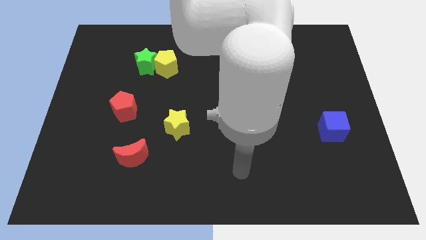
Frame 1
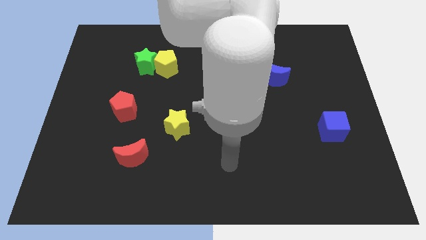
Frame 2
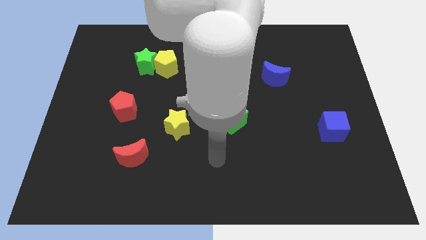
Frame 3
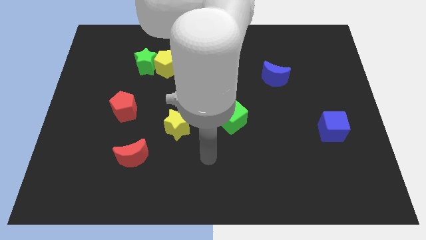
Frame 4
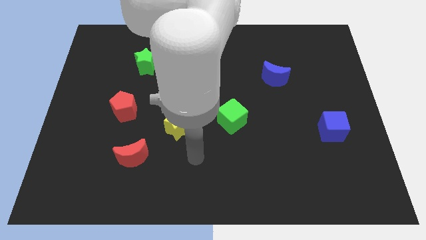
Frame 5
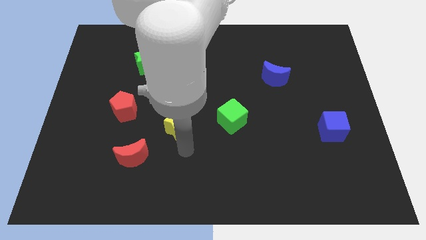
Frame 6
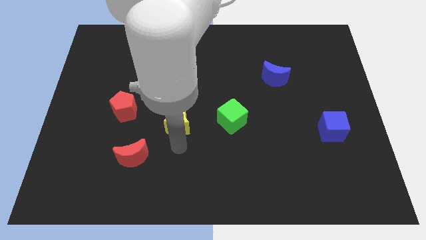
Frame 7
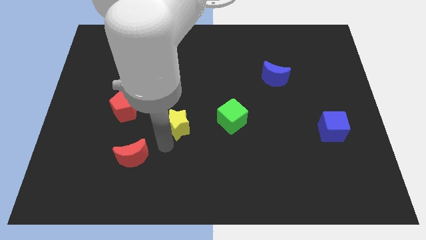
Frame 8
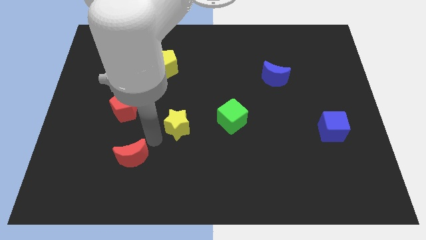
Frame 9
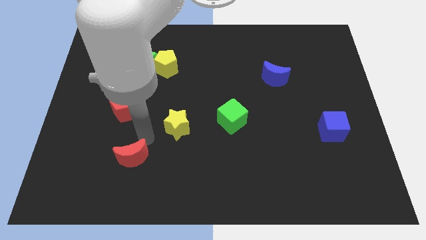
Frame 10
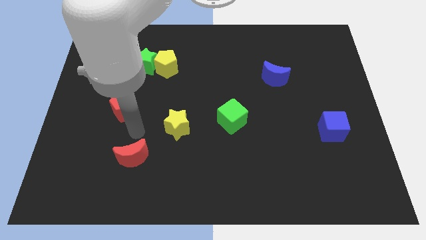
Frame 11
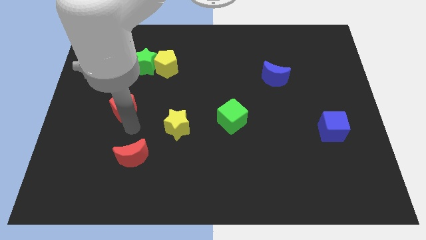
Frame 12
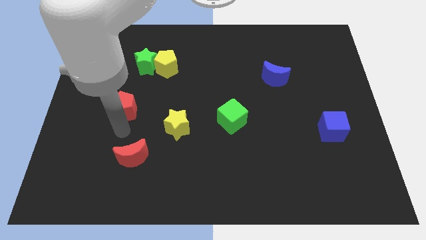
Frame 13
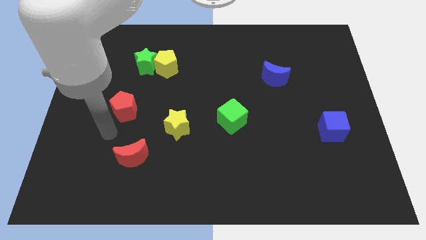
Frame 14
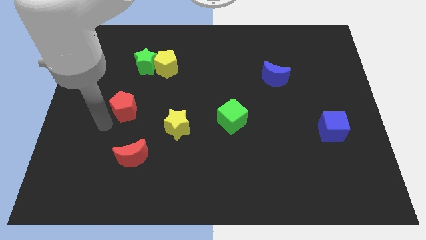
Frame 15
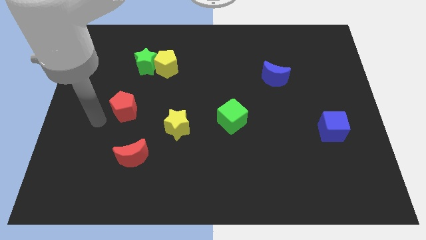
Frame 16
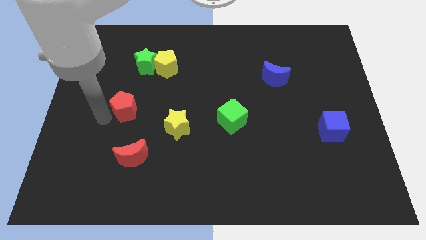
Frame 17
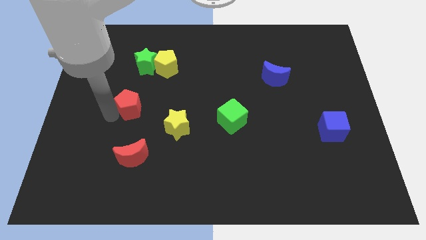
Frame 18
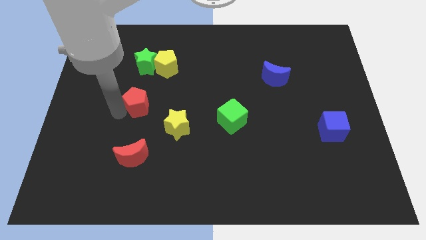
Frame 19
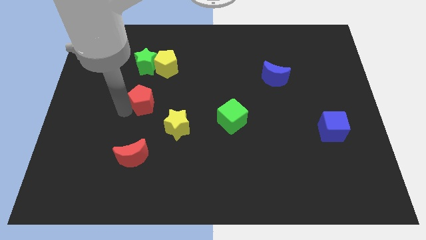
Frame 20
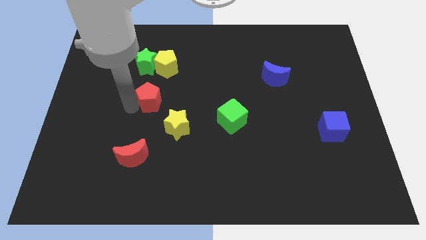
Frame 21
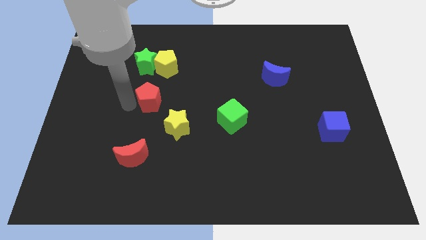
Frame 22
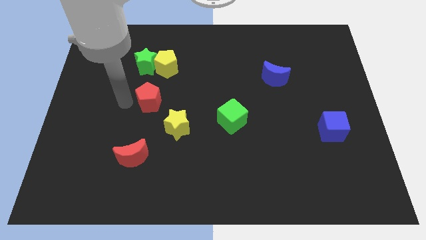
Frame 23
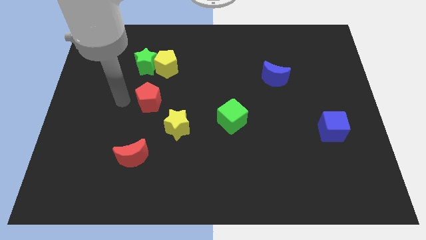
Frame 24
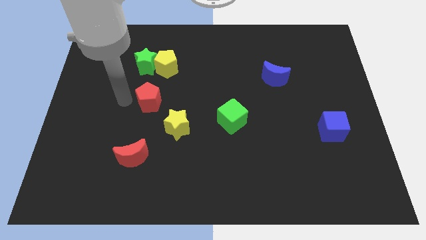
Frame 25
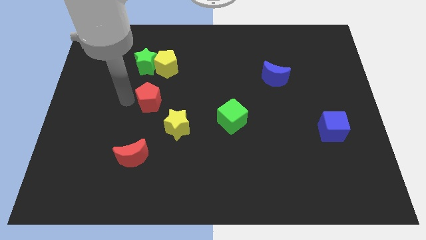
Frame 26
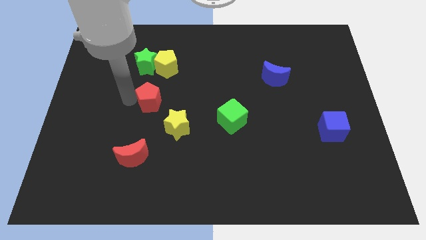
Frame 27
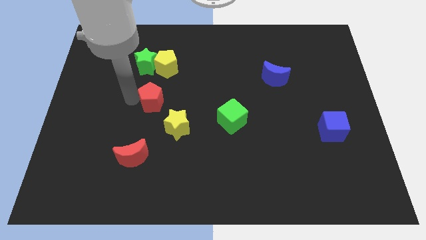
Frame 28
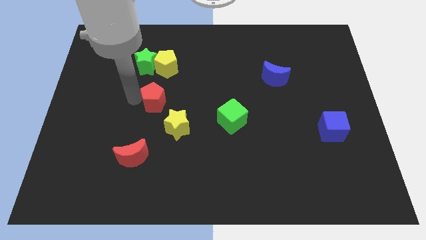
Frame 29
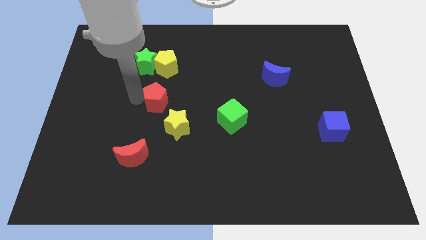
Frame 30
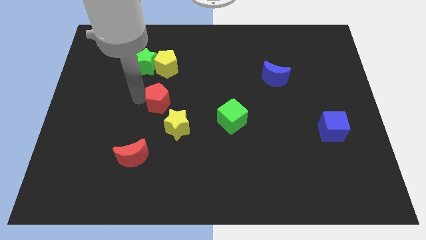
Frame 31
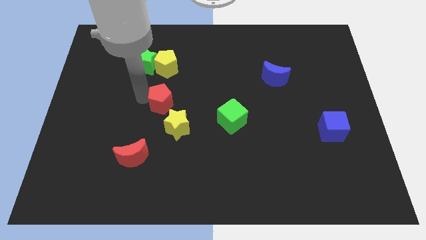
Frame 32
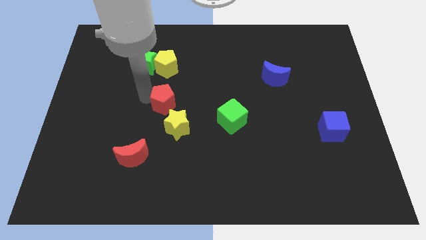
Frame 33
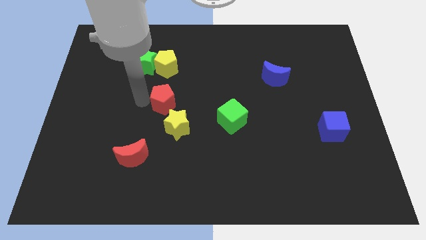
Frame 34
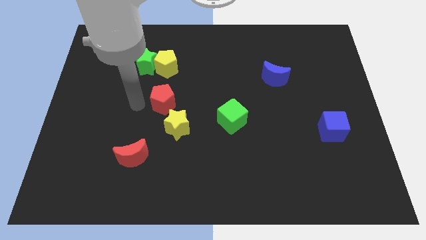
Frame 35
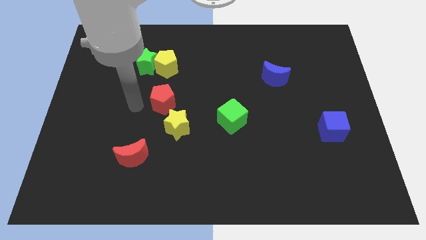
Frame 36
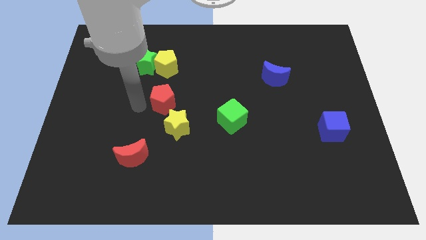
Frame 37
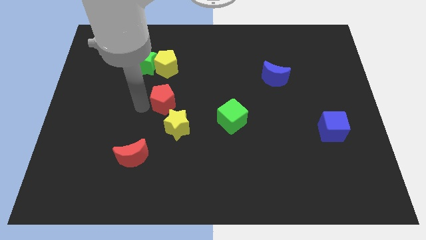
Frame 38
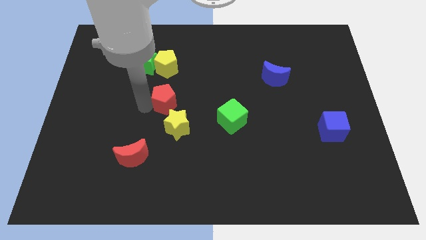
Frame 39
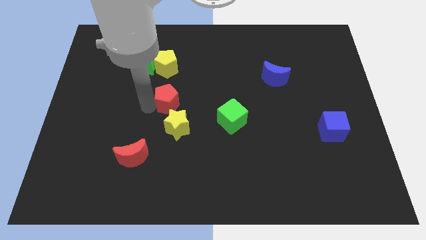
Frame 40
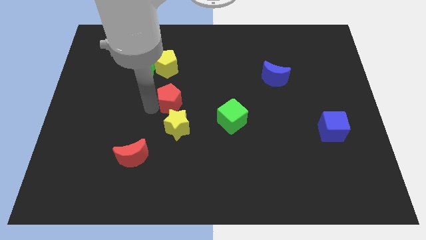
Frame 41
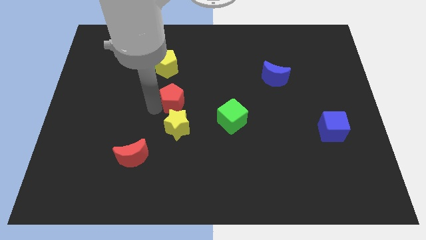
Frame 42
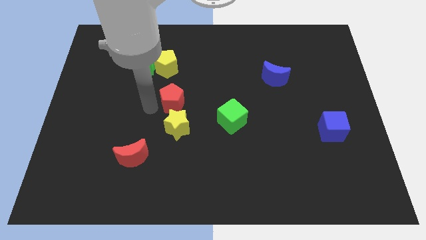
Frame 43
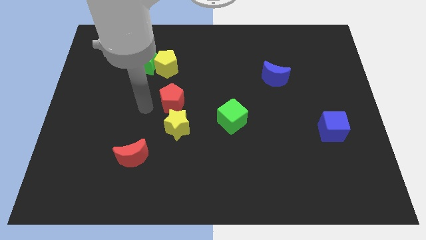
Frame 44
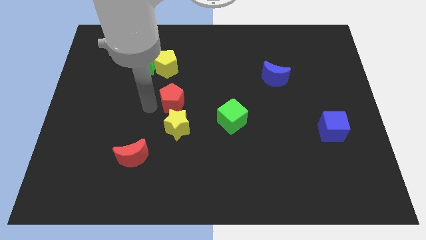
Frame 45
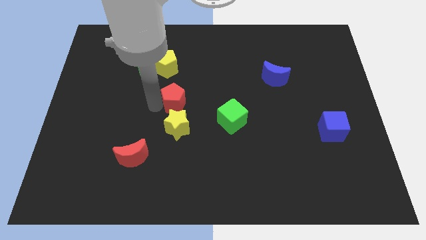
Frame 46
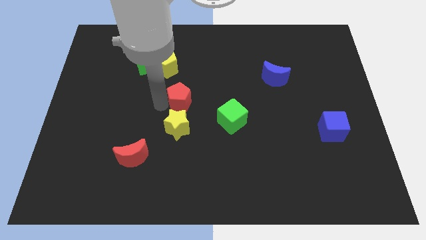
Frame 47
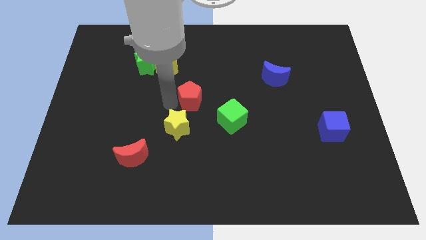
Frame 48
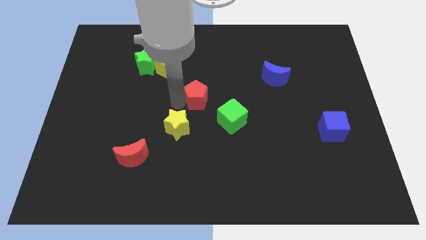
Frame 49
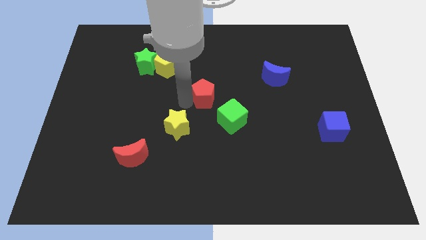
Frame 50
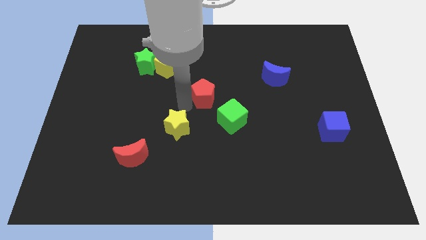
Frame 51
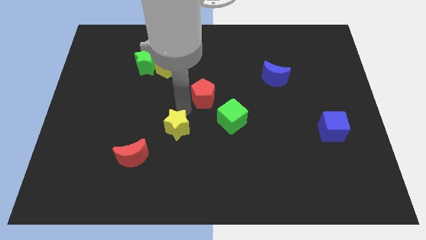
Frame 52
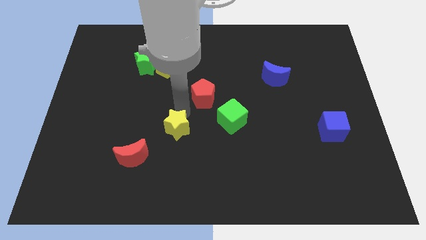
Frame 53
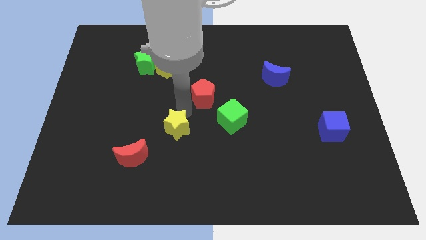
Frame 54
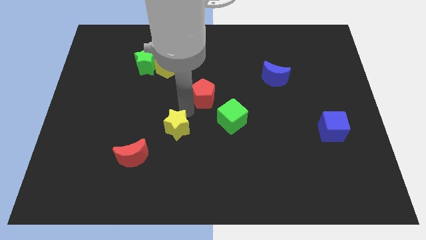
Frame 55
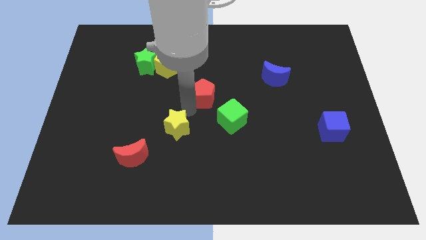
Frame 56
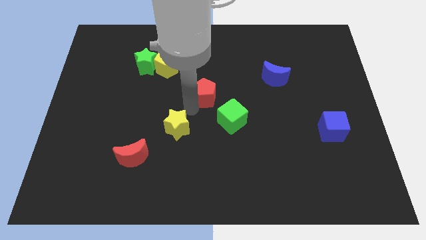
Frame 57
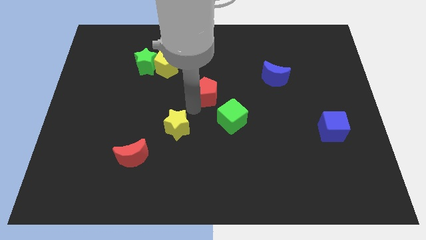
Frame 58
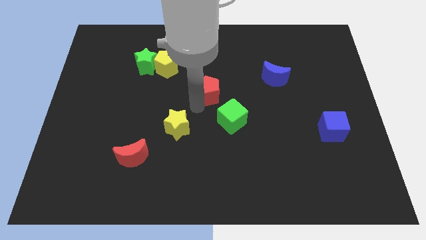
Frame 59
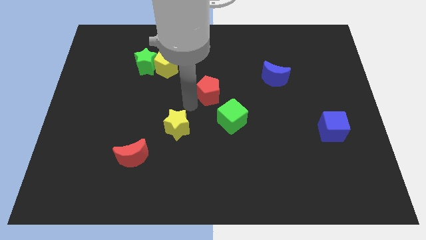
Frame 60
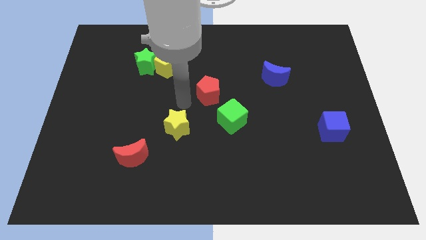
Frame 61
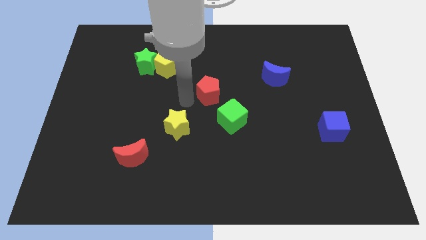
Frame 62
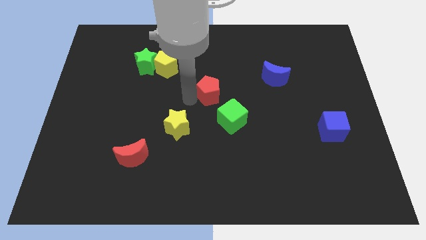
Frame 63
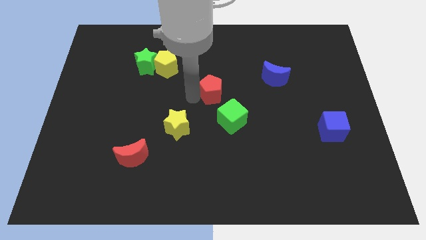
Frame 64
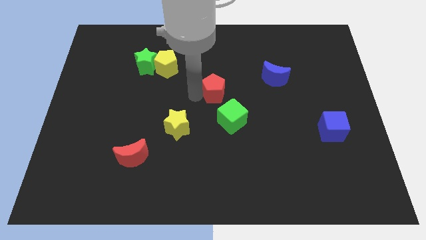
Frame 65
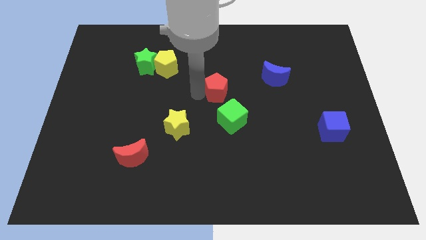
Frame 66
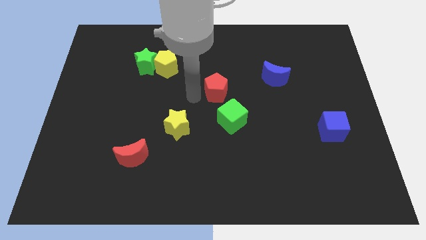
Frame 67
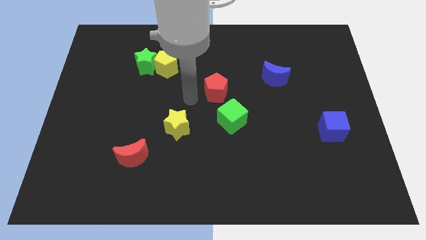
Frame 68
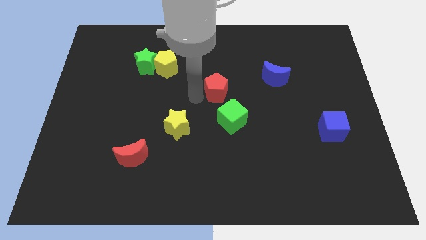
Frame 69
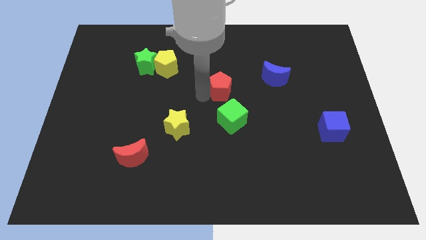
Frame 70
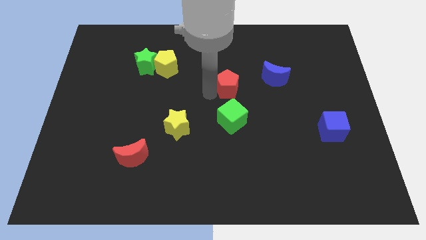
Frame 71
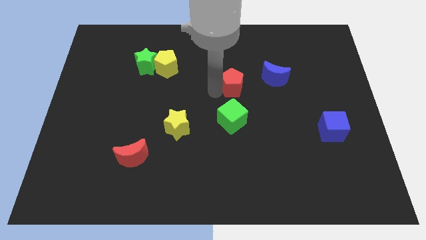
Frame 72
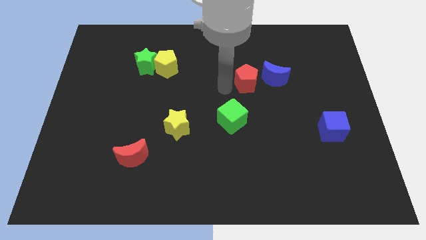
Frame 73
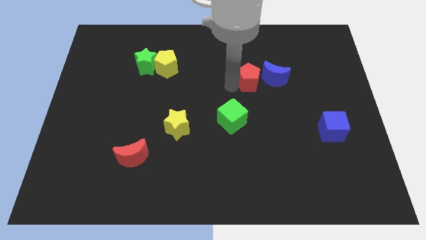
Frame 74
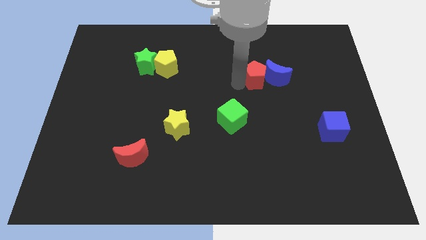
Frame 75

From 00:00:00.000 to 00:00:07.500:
slide the red pentagon close to the blue moon
